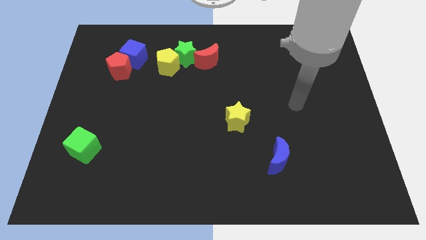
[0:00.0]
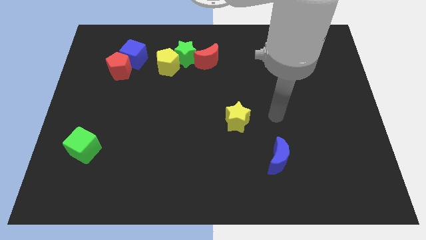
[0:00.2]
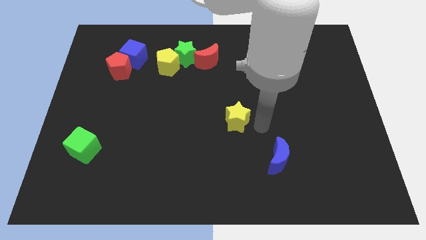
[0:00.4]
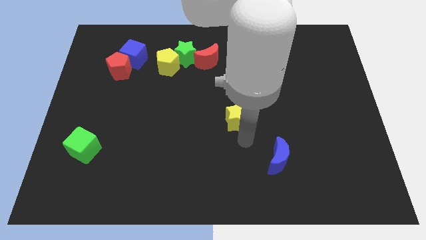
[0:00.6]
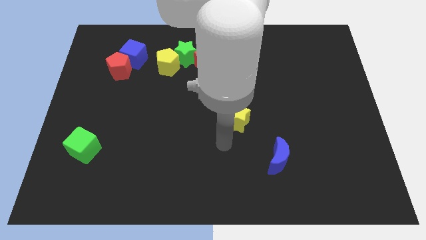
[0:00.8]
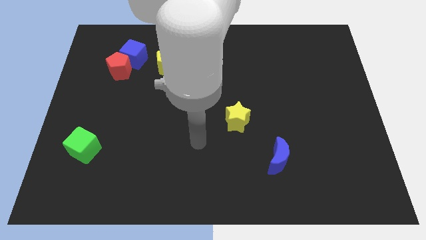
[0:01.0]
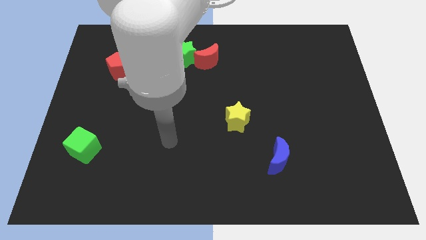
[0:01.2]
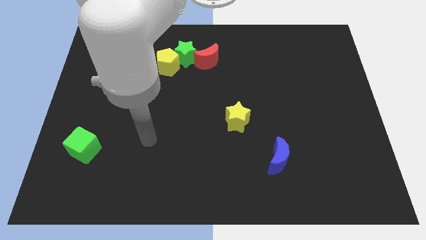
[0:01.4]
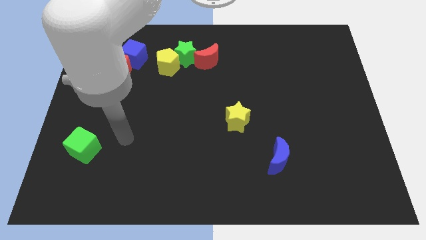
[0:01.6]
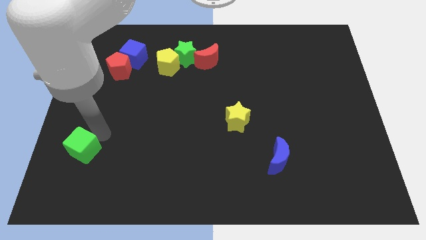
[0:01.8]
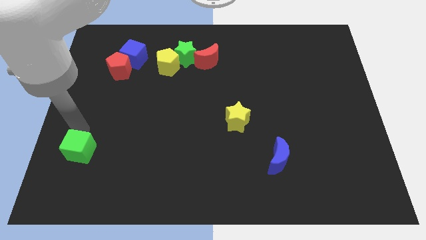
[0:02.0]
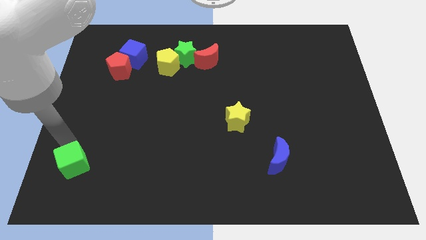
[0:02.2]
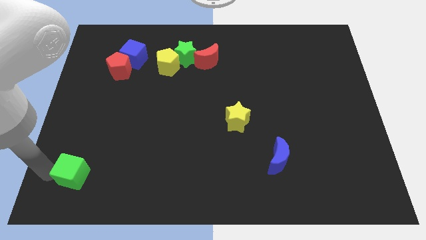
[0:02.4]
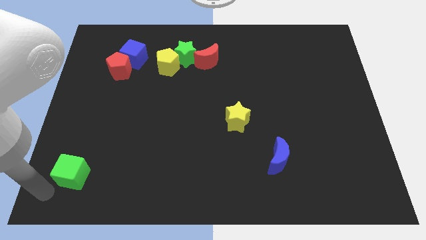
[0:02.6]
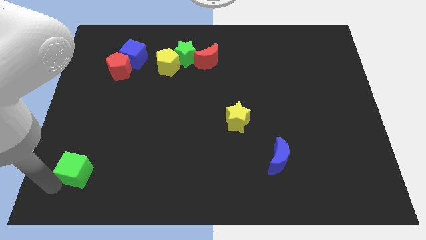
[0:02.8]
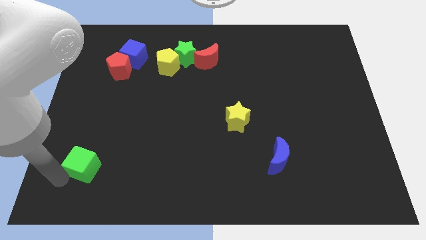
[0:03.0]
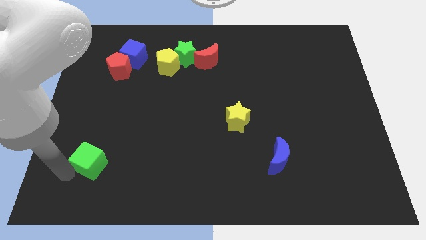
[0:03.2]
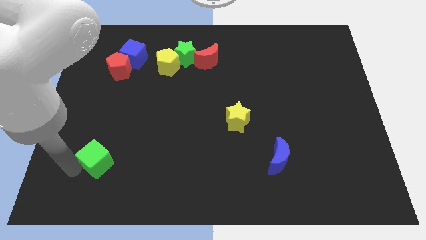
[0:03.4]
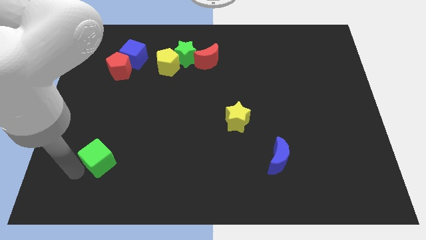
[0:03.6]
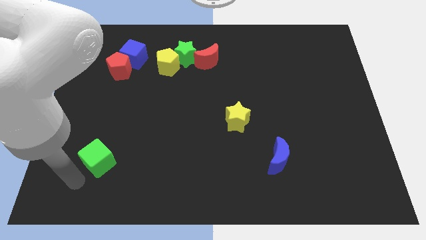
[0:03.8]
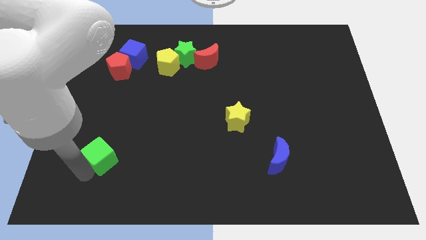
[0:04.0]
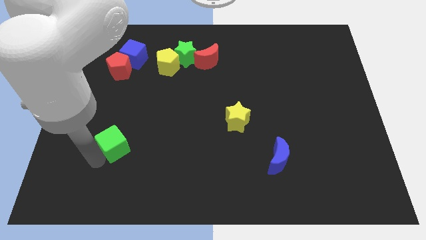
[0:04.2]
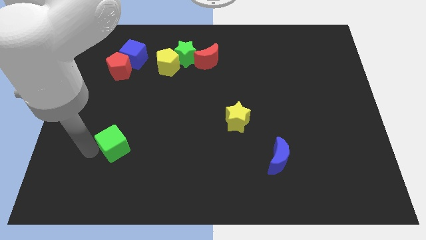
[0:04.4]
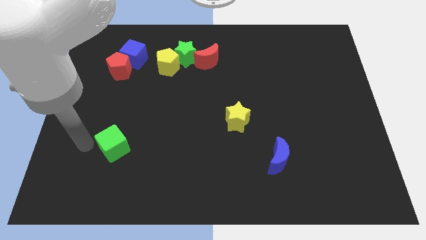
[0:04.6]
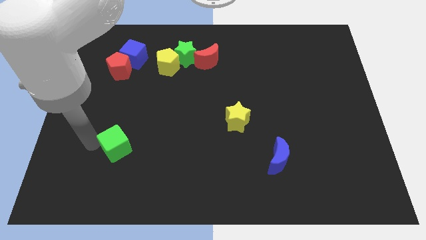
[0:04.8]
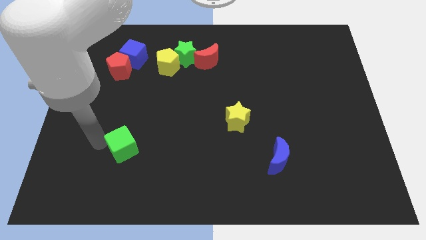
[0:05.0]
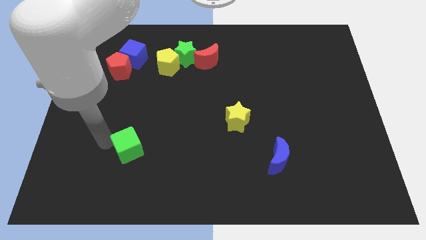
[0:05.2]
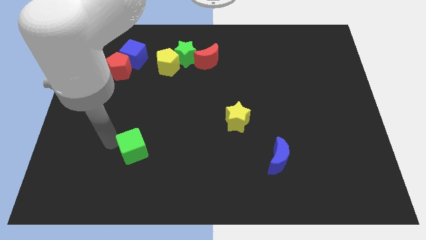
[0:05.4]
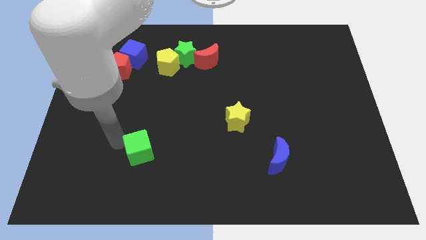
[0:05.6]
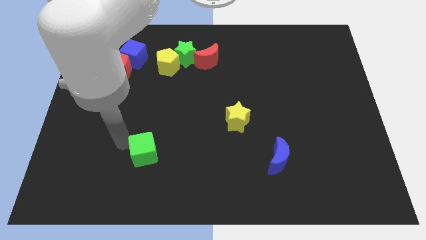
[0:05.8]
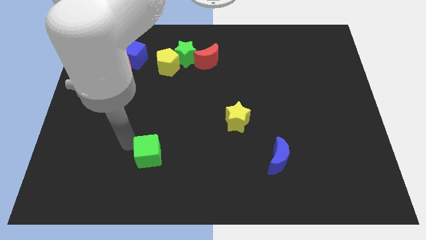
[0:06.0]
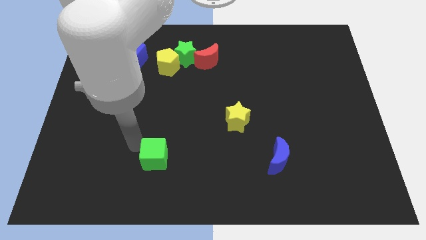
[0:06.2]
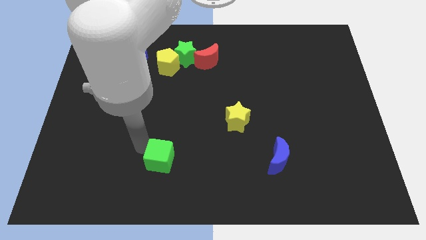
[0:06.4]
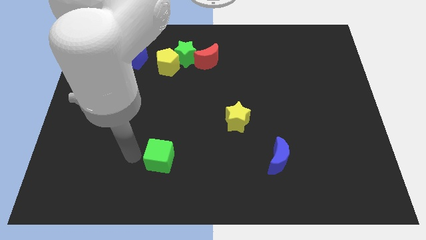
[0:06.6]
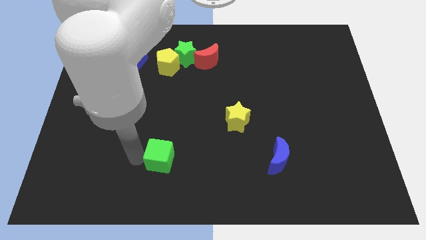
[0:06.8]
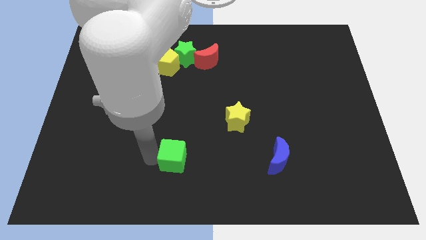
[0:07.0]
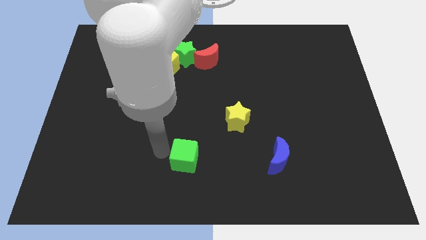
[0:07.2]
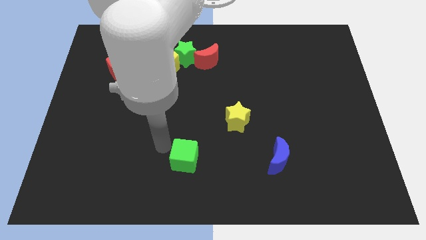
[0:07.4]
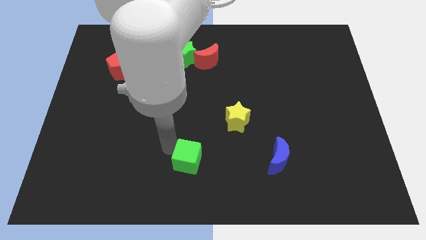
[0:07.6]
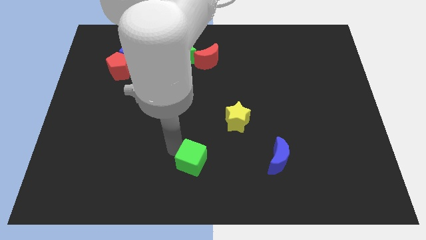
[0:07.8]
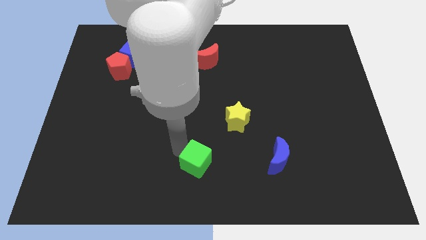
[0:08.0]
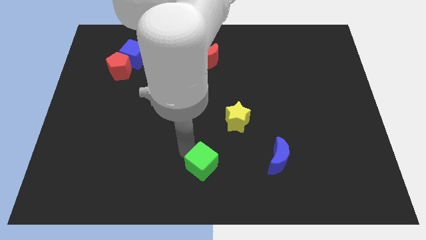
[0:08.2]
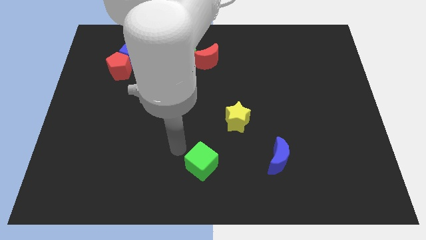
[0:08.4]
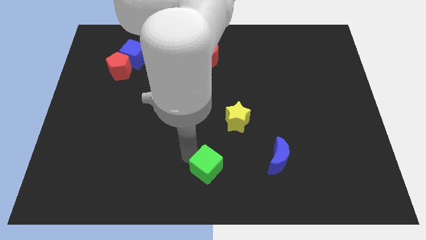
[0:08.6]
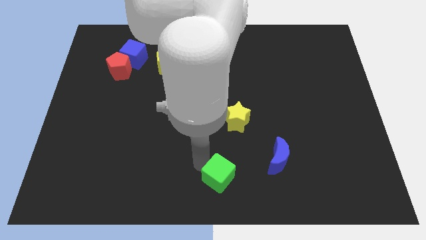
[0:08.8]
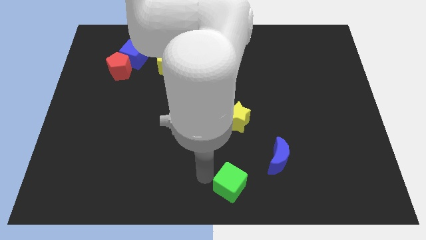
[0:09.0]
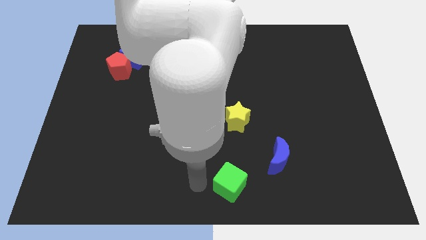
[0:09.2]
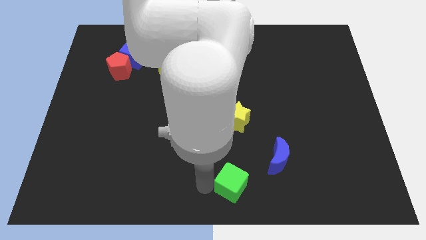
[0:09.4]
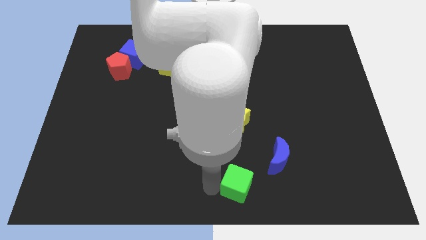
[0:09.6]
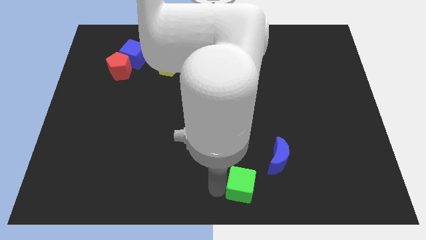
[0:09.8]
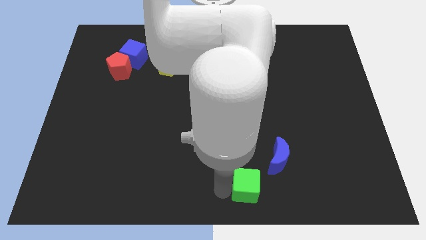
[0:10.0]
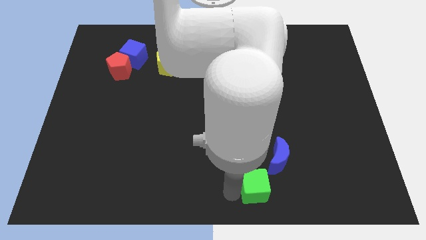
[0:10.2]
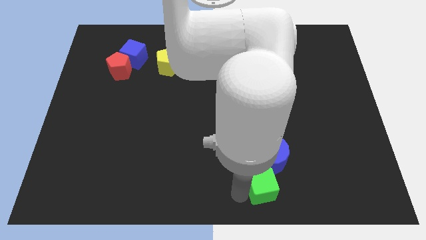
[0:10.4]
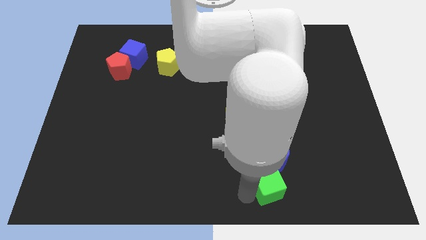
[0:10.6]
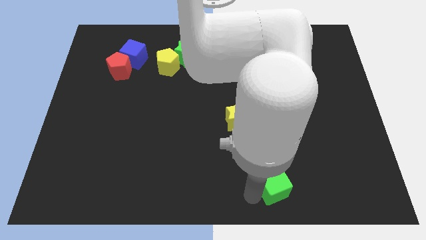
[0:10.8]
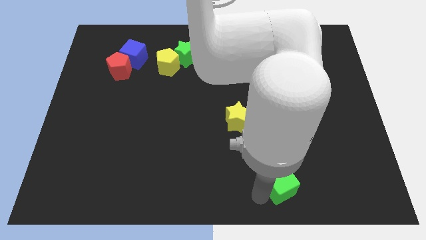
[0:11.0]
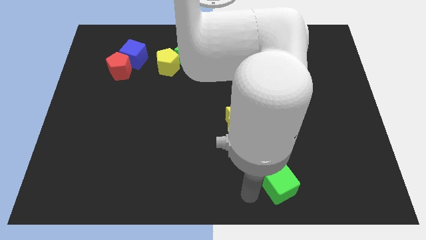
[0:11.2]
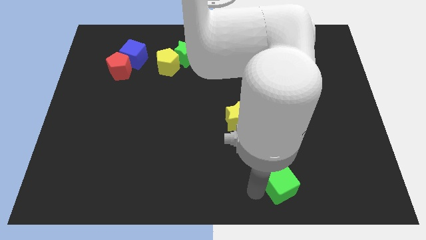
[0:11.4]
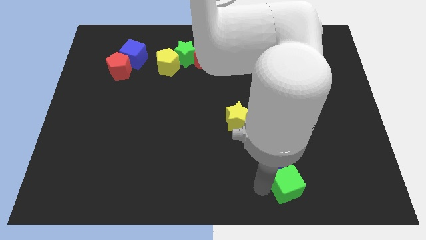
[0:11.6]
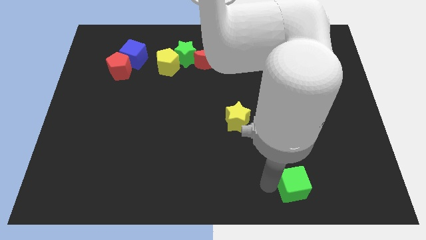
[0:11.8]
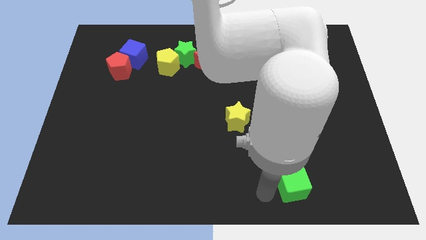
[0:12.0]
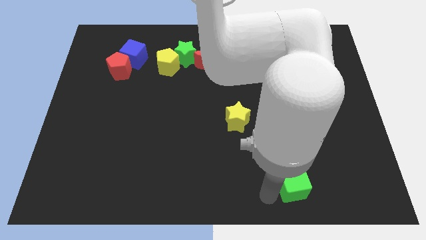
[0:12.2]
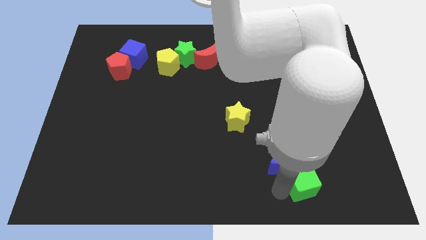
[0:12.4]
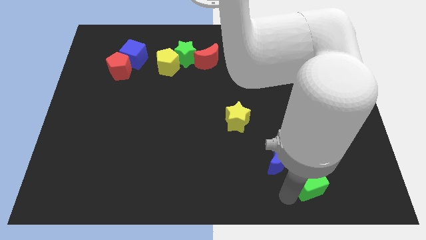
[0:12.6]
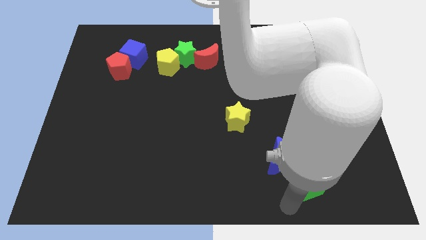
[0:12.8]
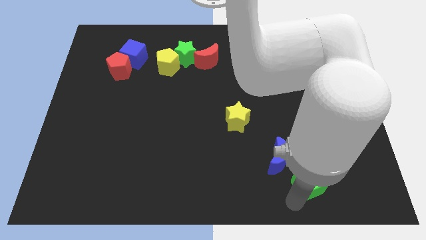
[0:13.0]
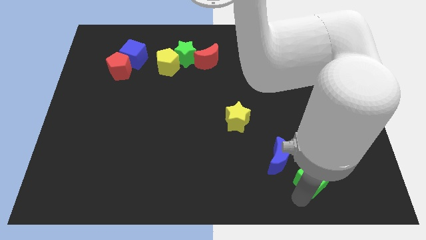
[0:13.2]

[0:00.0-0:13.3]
put the green cube to the right side of the blue moon

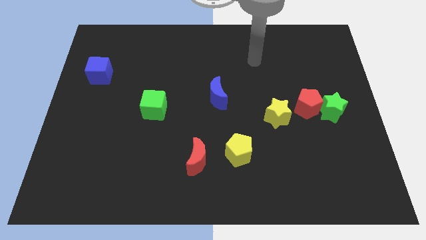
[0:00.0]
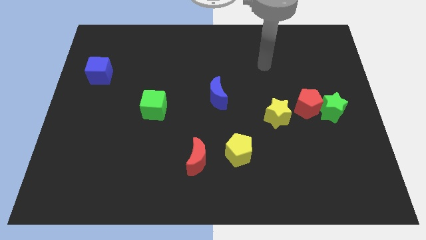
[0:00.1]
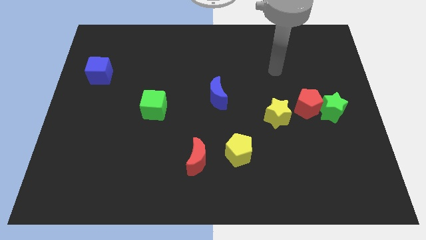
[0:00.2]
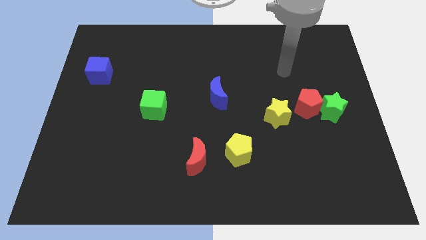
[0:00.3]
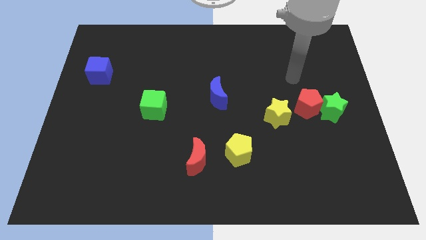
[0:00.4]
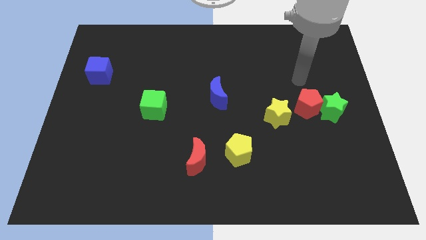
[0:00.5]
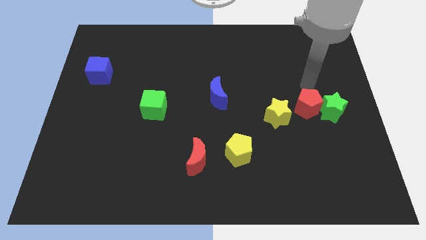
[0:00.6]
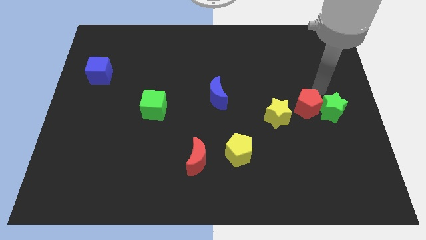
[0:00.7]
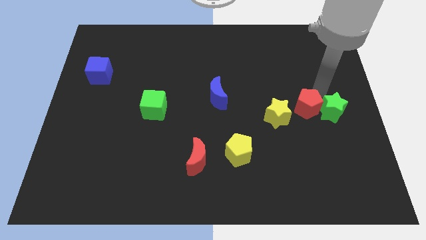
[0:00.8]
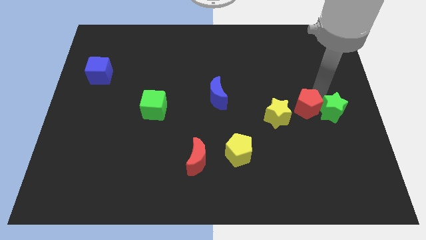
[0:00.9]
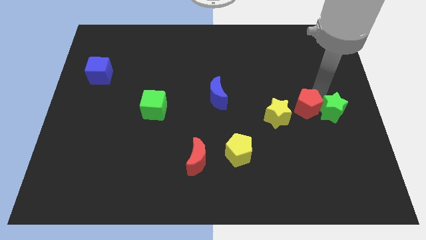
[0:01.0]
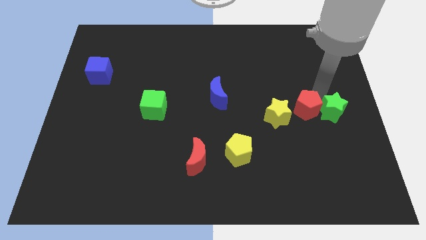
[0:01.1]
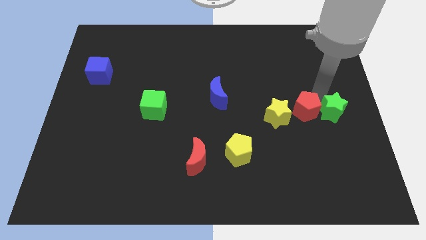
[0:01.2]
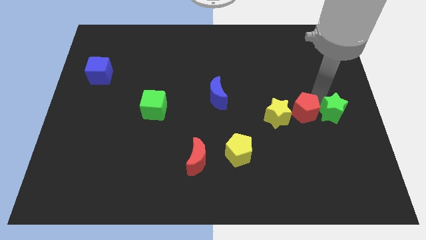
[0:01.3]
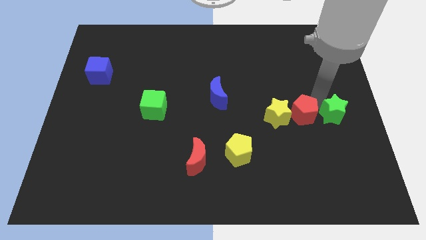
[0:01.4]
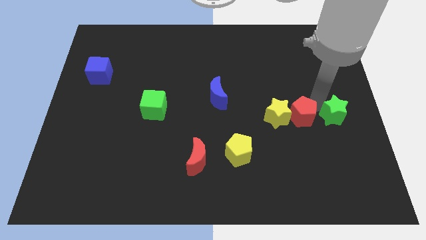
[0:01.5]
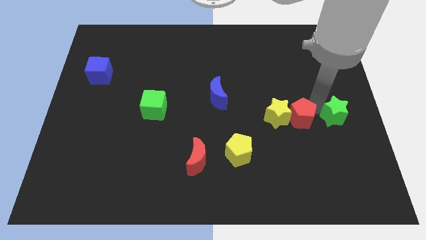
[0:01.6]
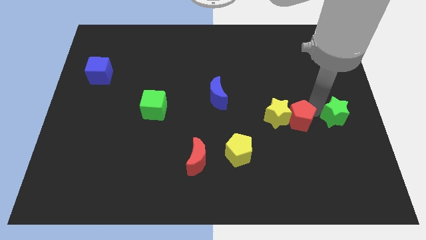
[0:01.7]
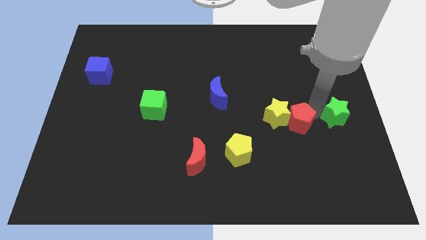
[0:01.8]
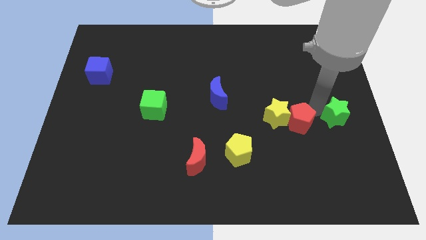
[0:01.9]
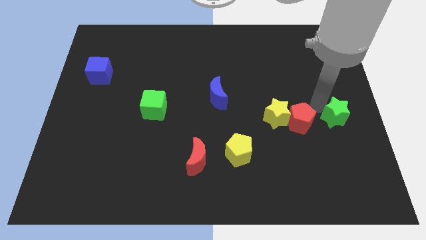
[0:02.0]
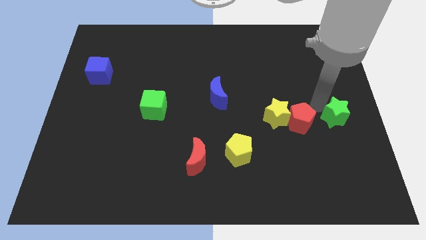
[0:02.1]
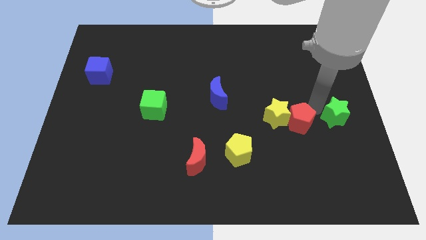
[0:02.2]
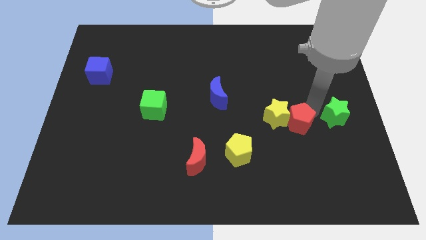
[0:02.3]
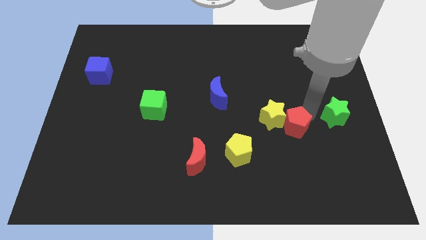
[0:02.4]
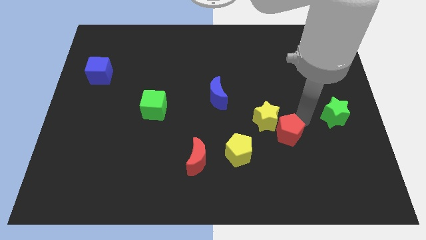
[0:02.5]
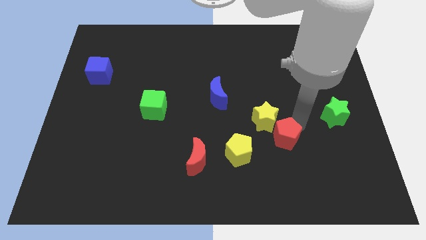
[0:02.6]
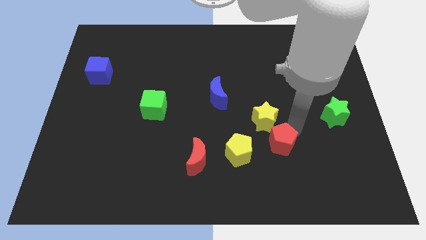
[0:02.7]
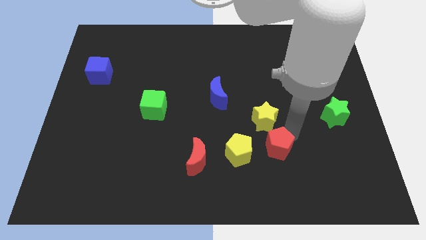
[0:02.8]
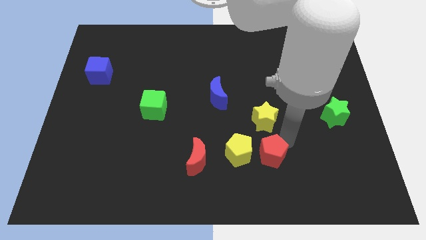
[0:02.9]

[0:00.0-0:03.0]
slide the red pentagon to the right of the red moon
